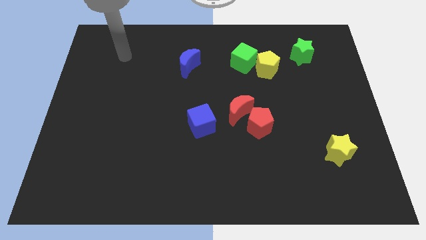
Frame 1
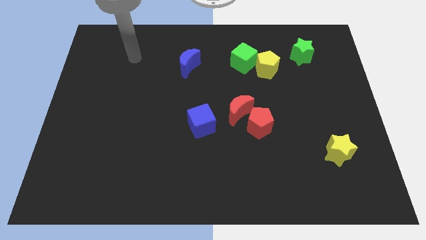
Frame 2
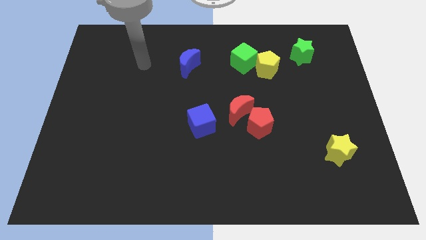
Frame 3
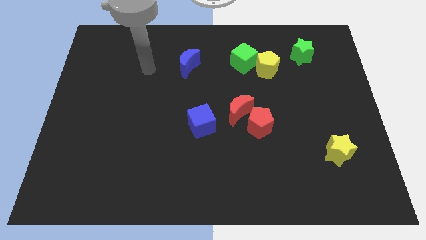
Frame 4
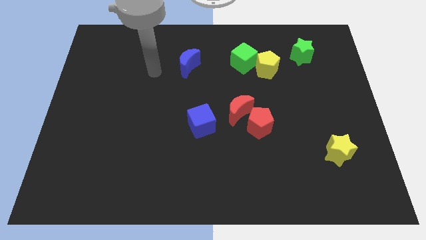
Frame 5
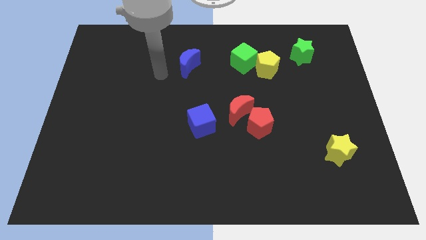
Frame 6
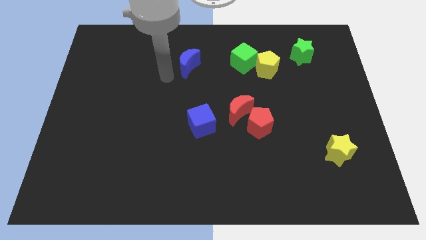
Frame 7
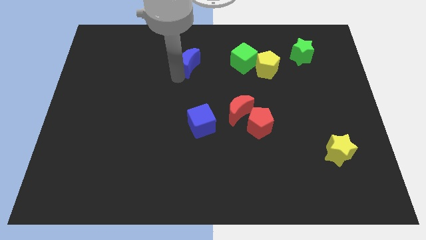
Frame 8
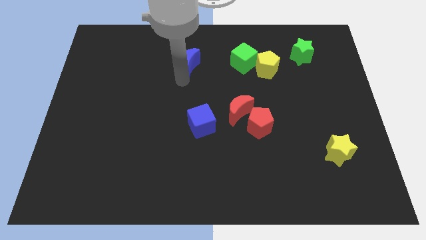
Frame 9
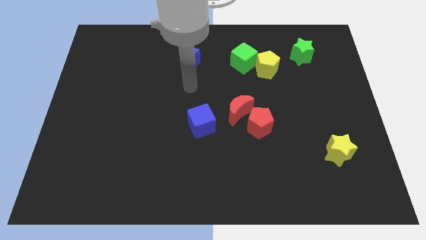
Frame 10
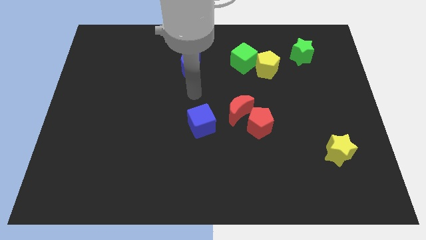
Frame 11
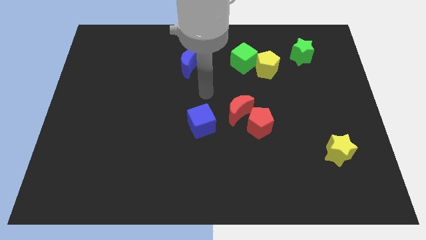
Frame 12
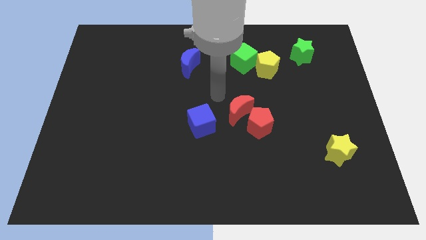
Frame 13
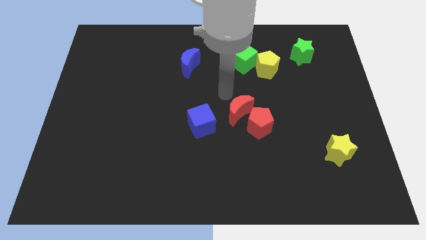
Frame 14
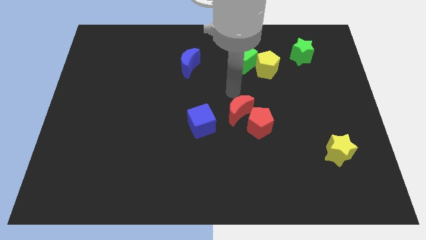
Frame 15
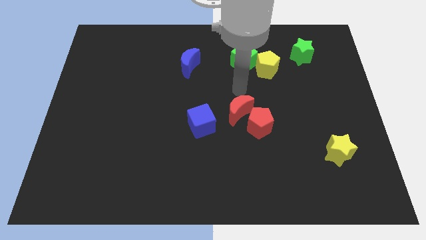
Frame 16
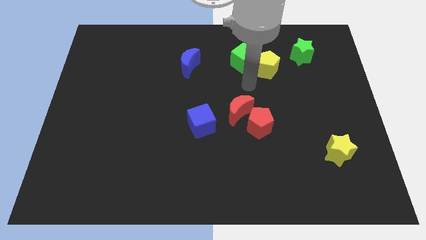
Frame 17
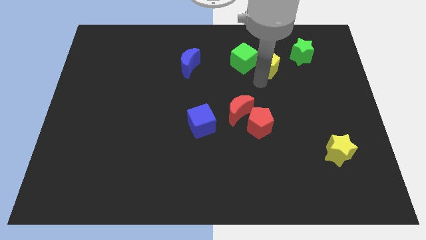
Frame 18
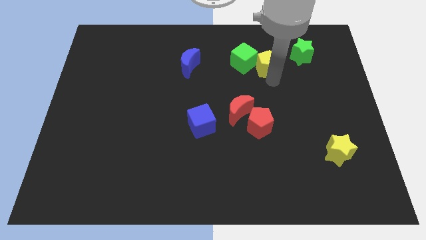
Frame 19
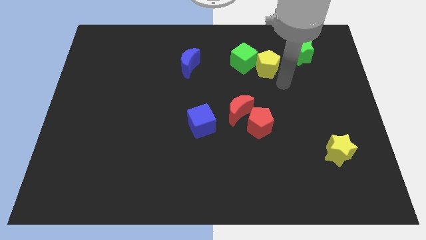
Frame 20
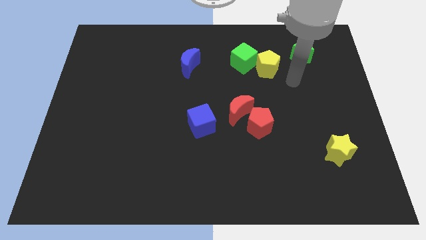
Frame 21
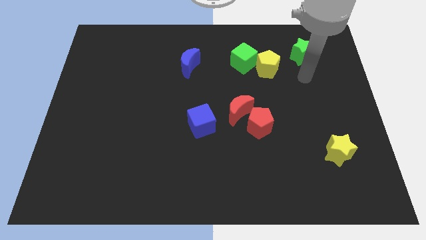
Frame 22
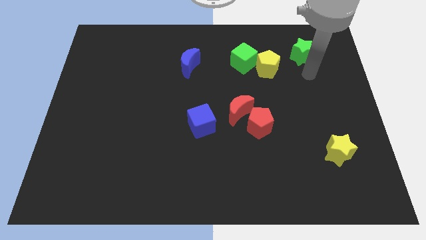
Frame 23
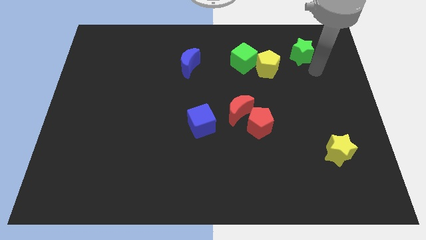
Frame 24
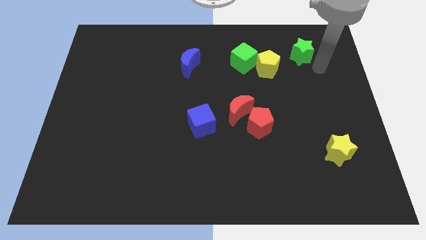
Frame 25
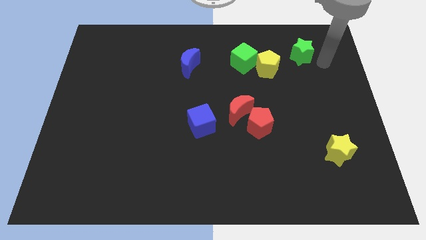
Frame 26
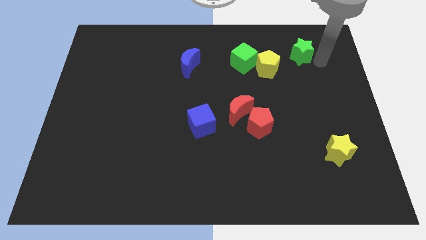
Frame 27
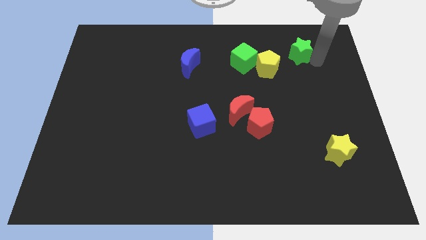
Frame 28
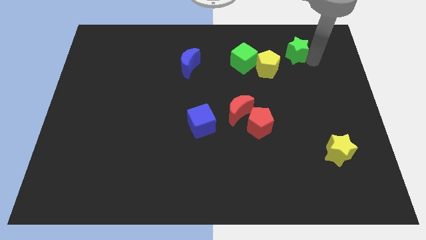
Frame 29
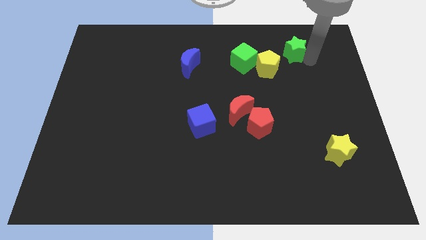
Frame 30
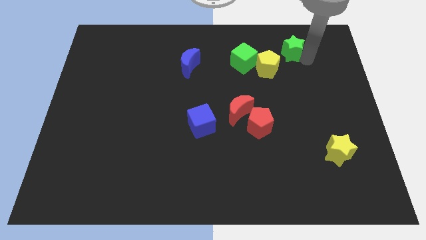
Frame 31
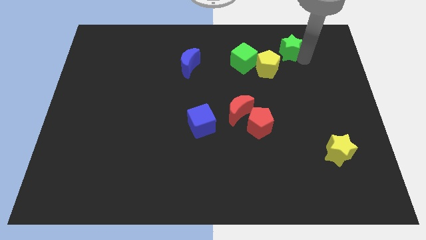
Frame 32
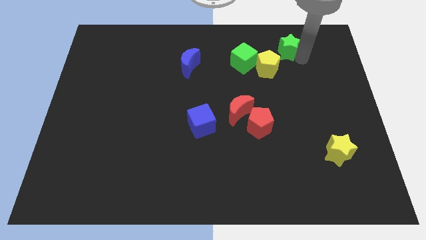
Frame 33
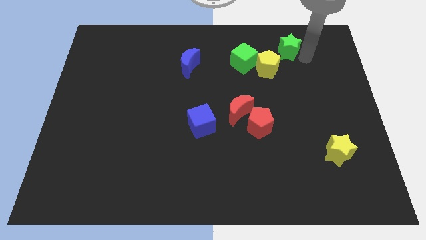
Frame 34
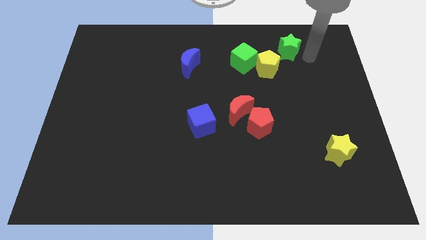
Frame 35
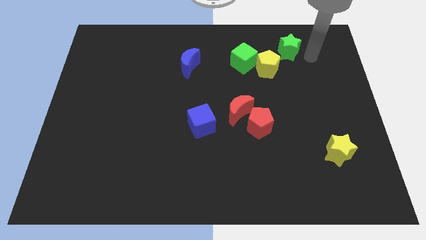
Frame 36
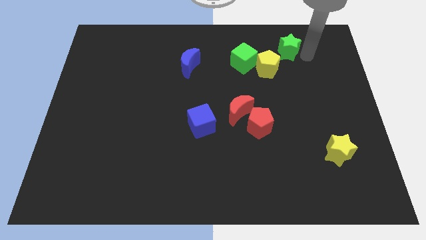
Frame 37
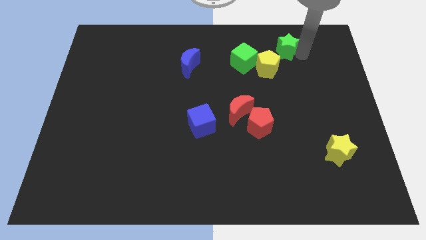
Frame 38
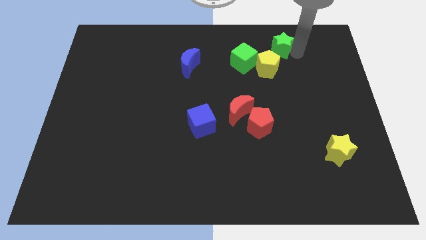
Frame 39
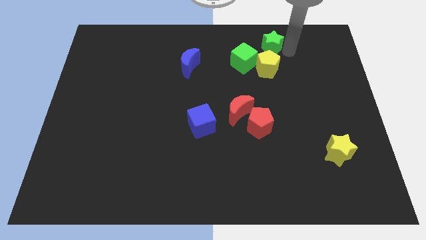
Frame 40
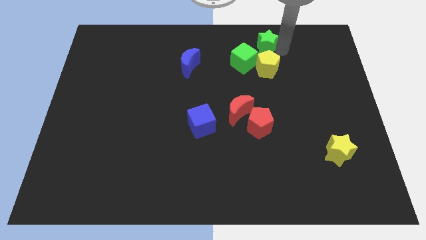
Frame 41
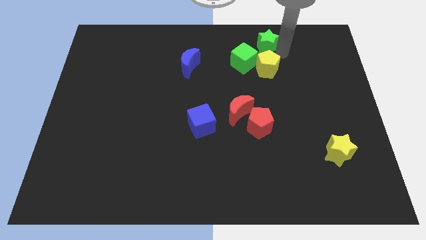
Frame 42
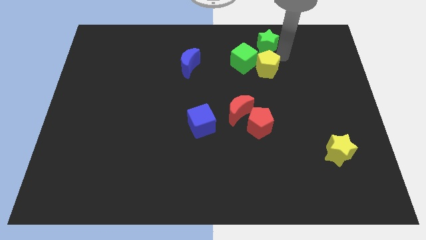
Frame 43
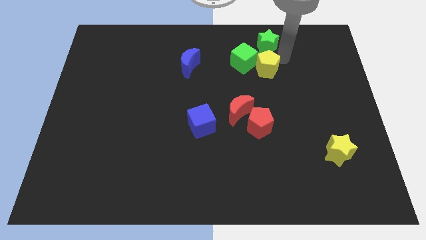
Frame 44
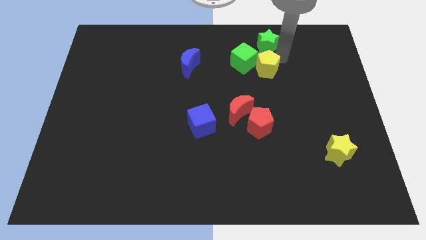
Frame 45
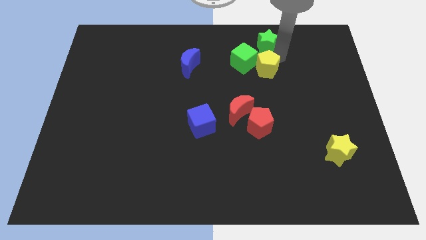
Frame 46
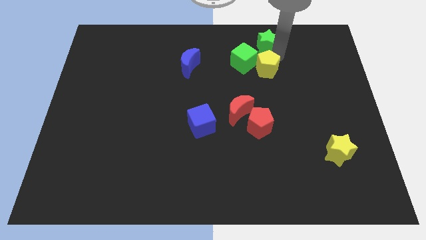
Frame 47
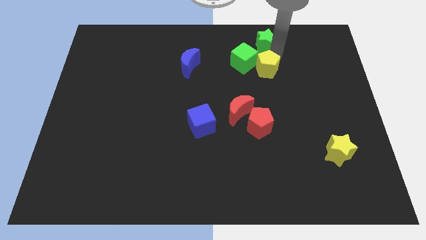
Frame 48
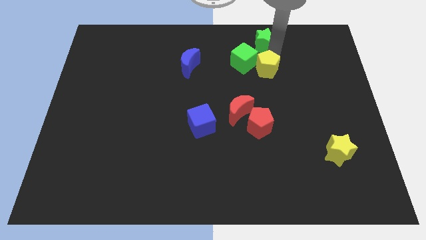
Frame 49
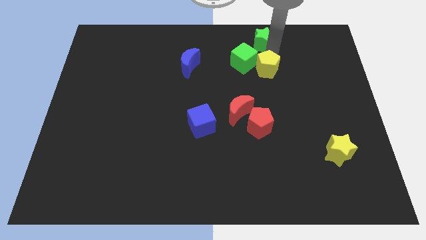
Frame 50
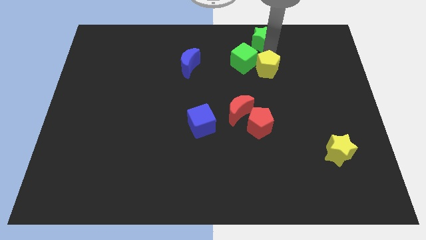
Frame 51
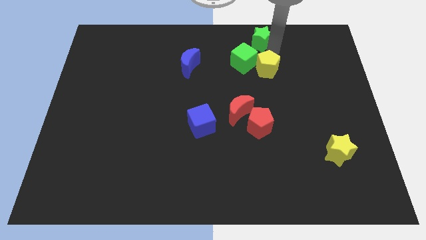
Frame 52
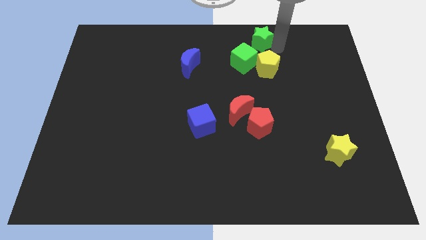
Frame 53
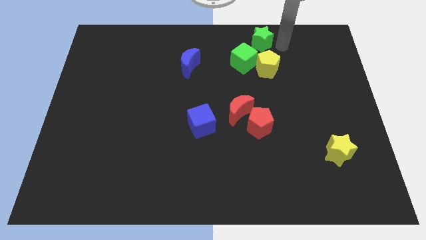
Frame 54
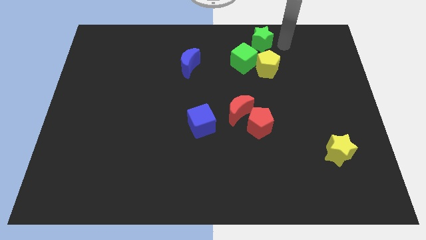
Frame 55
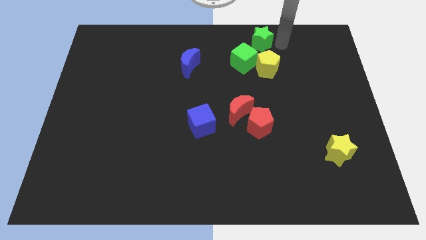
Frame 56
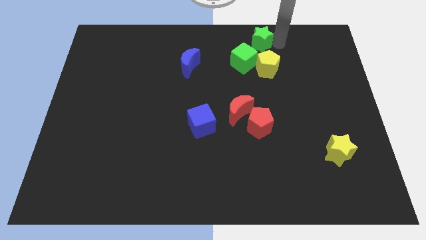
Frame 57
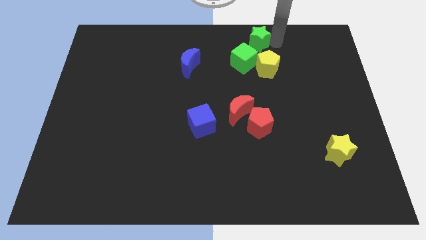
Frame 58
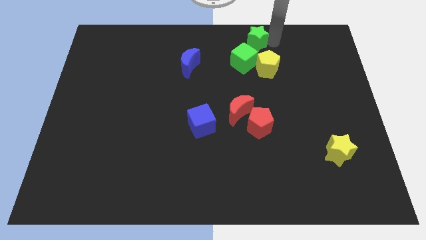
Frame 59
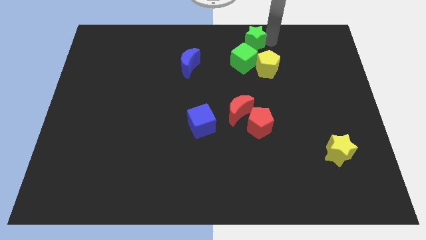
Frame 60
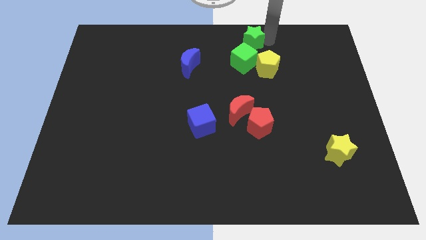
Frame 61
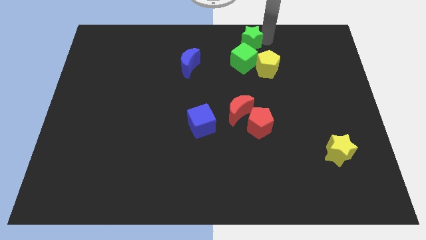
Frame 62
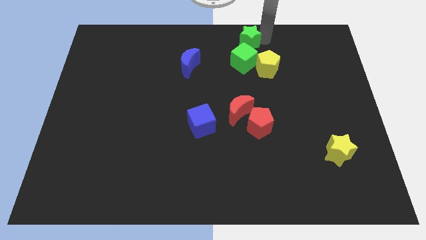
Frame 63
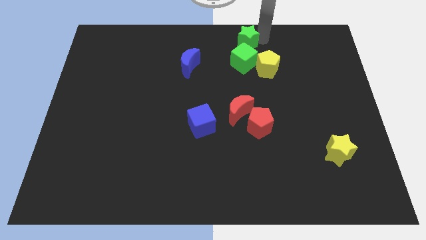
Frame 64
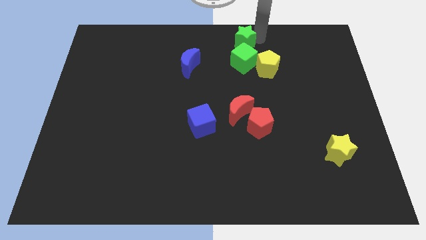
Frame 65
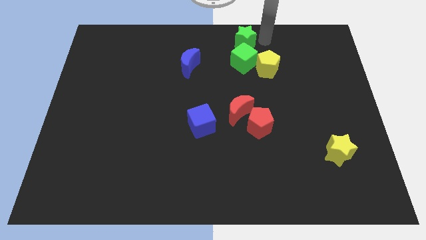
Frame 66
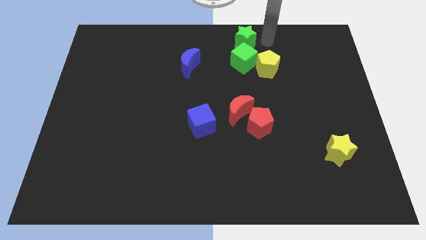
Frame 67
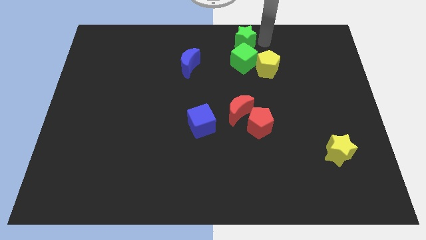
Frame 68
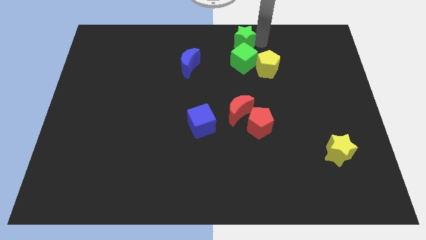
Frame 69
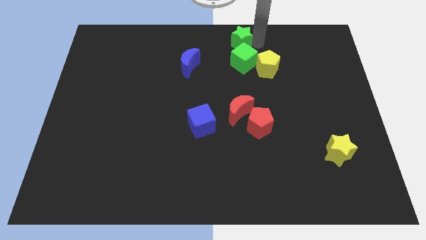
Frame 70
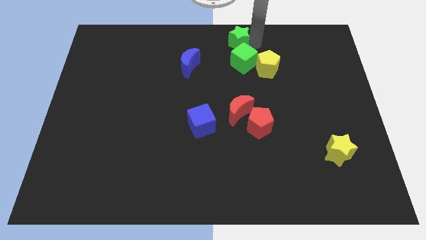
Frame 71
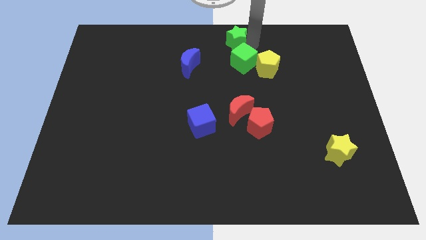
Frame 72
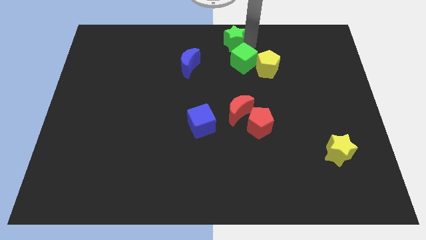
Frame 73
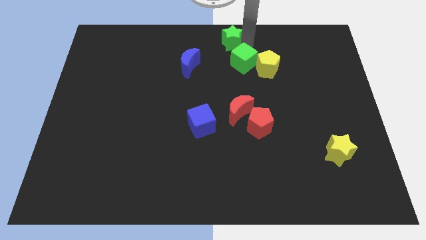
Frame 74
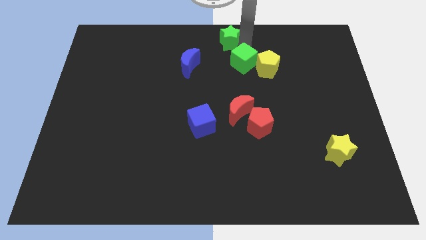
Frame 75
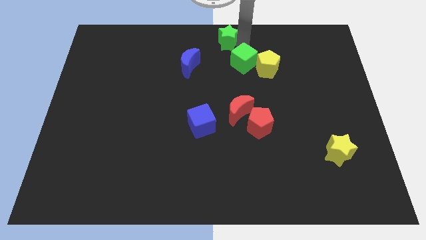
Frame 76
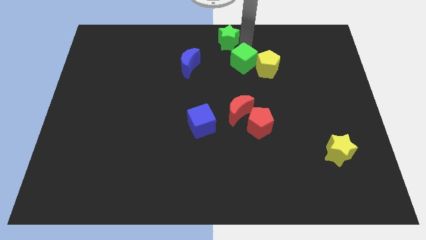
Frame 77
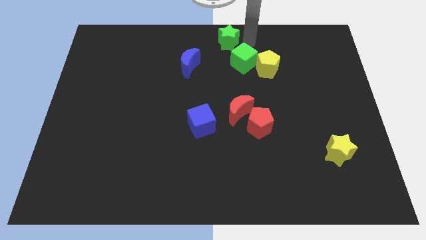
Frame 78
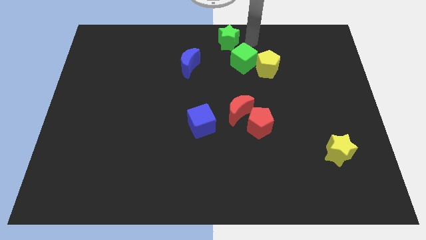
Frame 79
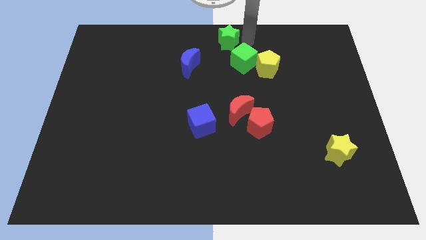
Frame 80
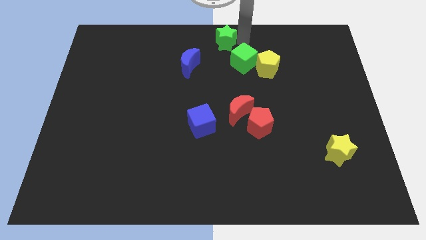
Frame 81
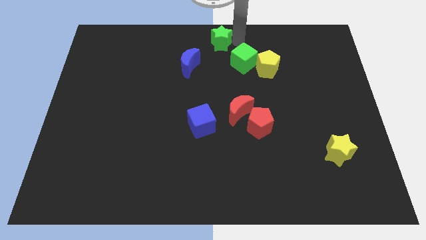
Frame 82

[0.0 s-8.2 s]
slide the green star left
